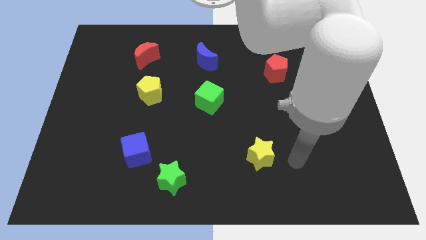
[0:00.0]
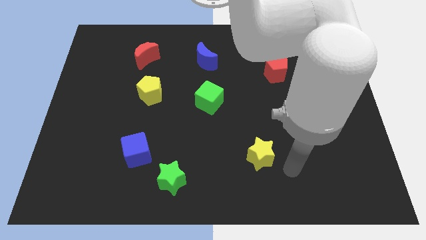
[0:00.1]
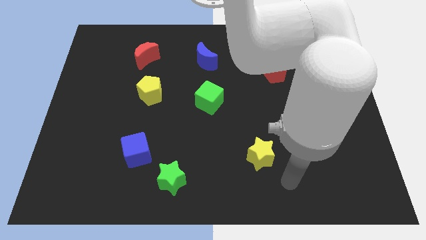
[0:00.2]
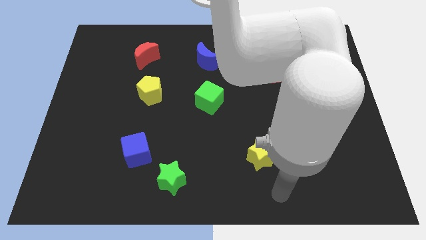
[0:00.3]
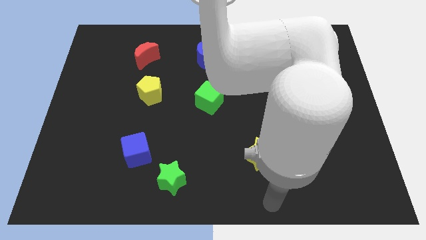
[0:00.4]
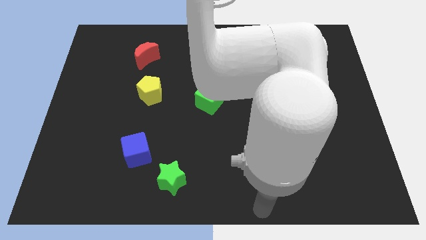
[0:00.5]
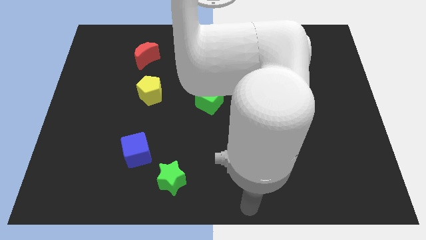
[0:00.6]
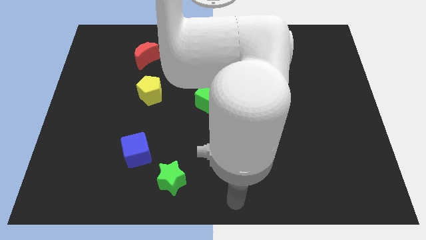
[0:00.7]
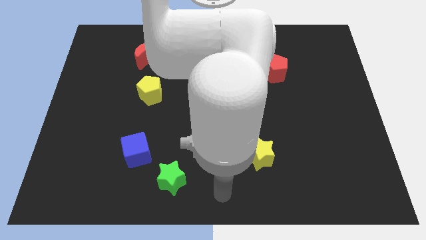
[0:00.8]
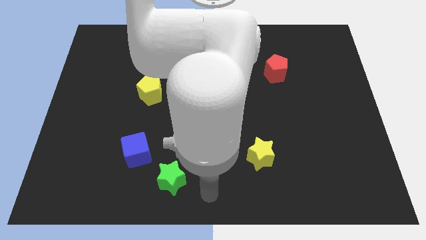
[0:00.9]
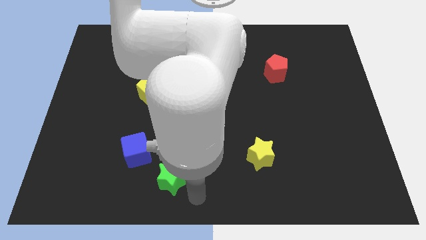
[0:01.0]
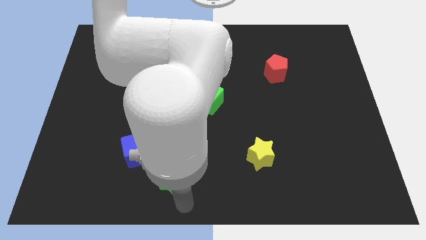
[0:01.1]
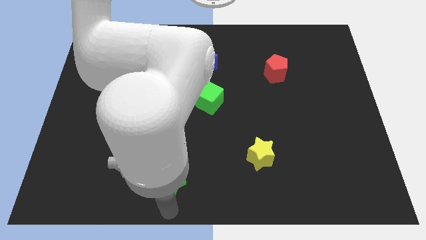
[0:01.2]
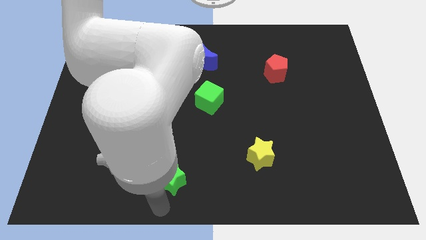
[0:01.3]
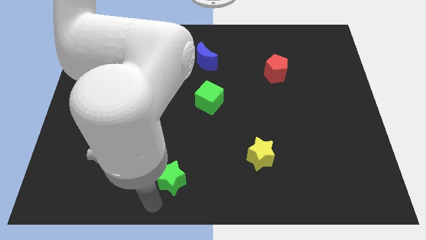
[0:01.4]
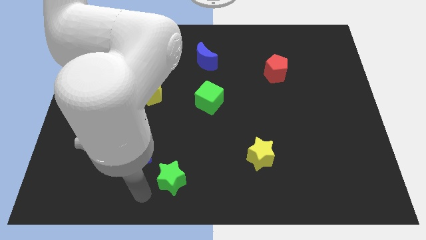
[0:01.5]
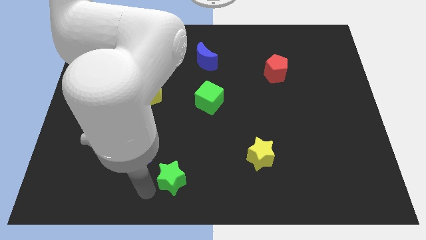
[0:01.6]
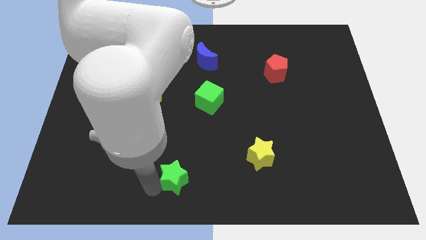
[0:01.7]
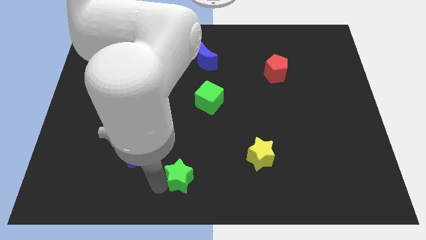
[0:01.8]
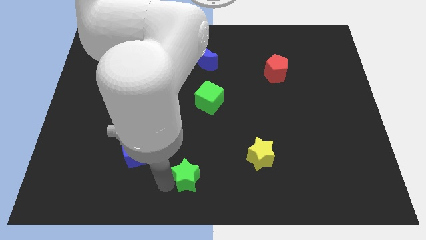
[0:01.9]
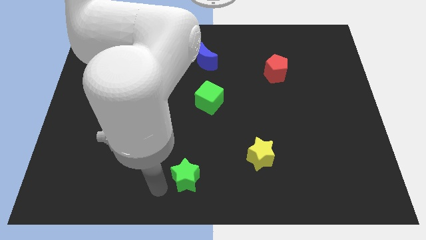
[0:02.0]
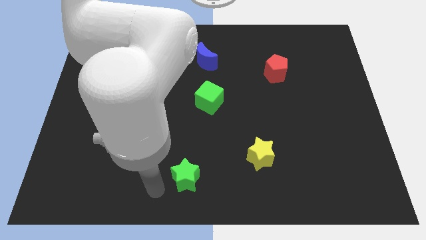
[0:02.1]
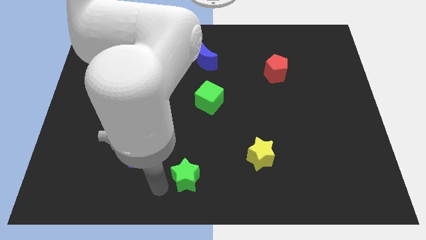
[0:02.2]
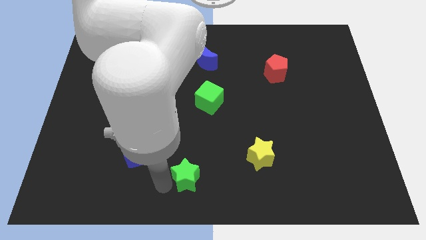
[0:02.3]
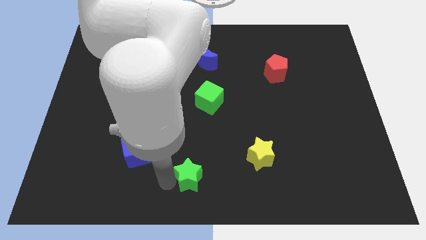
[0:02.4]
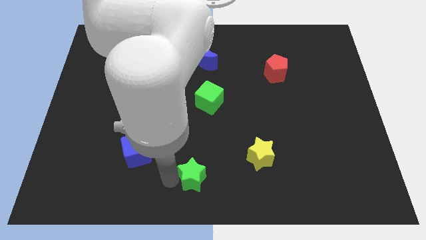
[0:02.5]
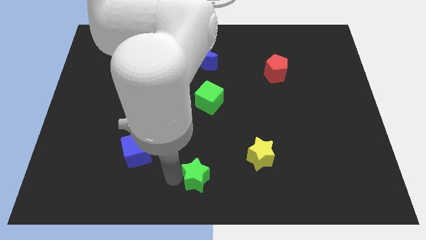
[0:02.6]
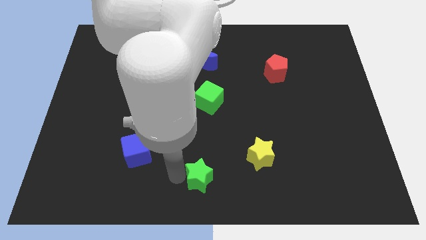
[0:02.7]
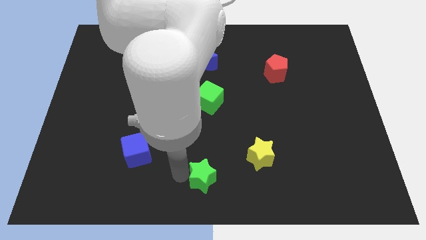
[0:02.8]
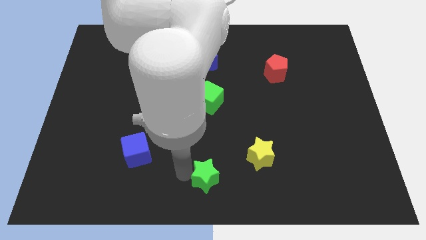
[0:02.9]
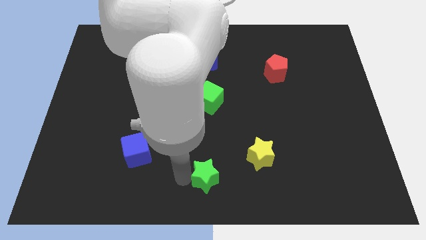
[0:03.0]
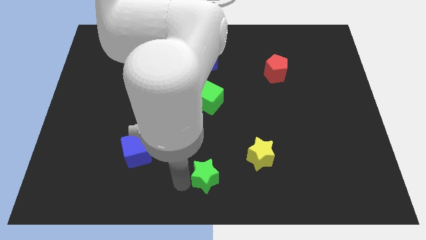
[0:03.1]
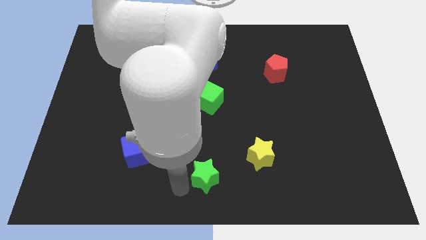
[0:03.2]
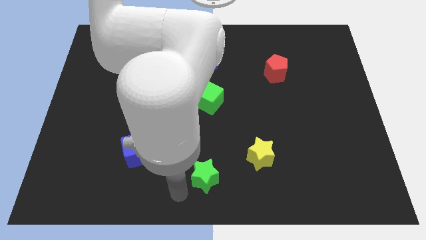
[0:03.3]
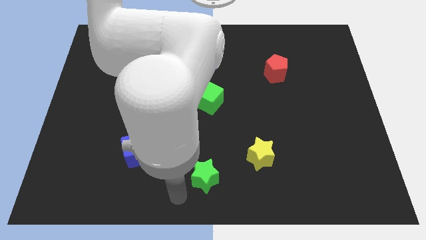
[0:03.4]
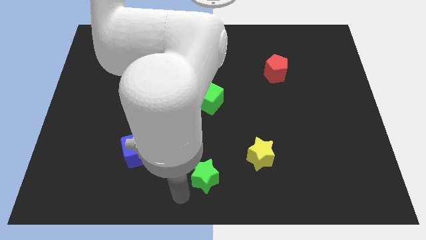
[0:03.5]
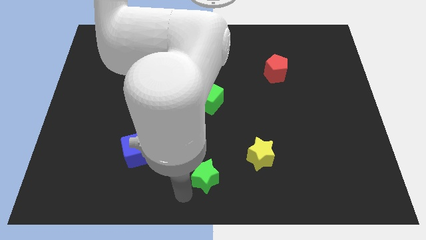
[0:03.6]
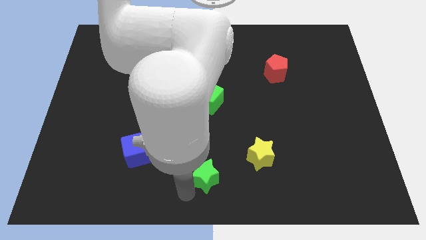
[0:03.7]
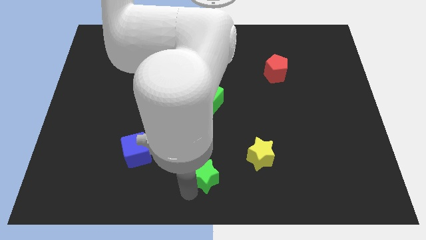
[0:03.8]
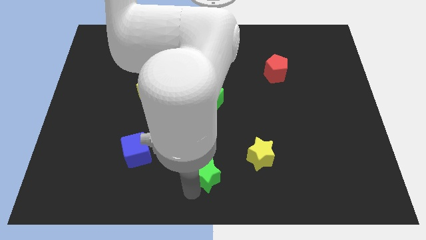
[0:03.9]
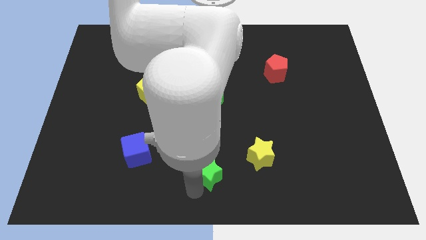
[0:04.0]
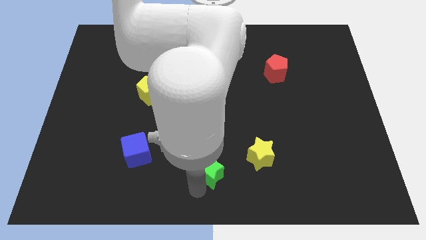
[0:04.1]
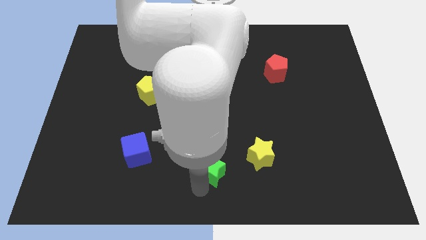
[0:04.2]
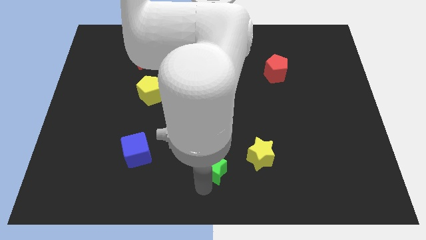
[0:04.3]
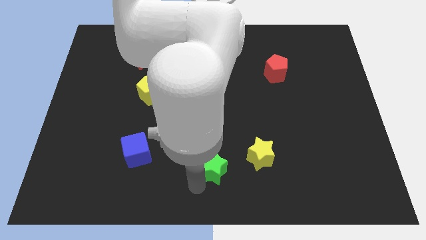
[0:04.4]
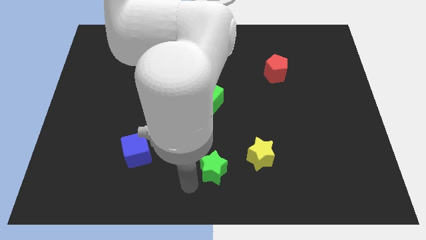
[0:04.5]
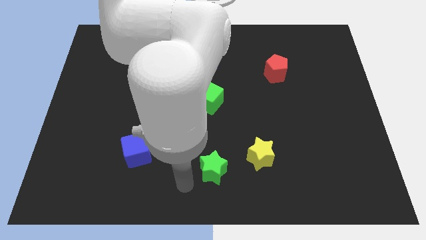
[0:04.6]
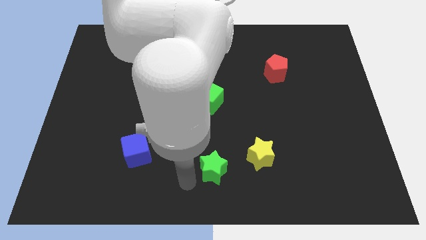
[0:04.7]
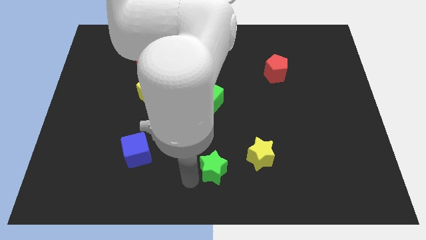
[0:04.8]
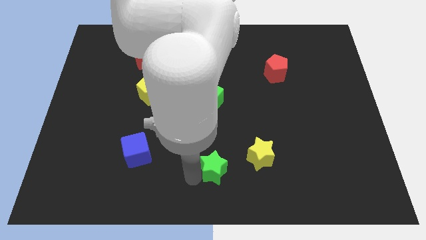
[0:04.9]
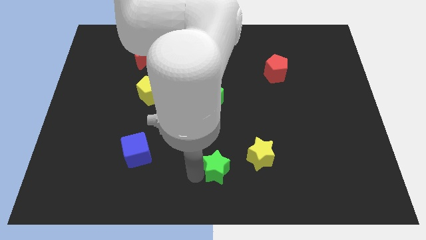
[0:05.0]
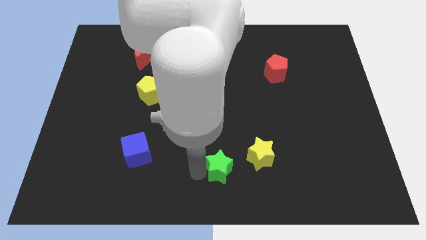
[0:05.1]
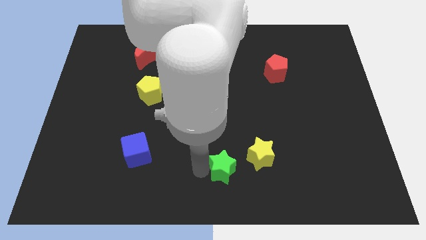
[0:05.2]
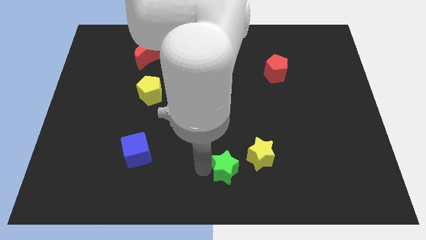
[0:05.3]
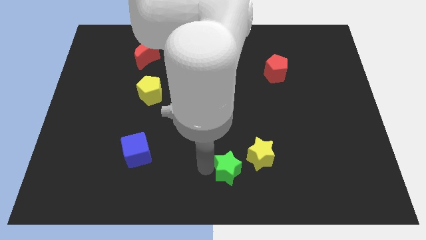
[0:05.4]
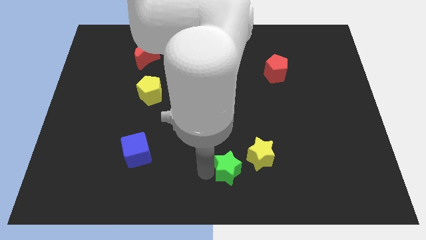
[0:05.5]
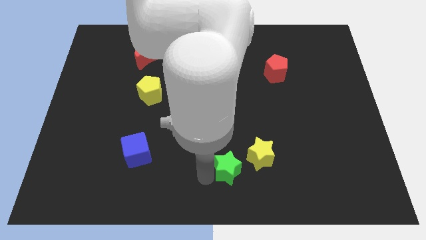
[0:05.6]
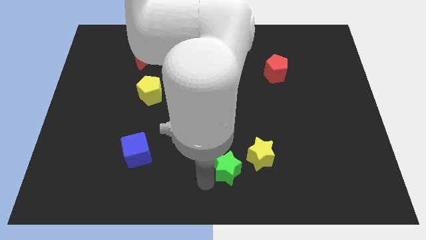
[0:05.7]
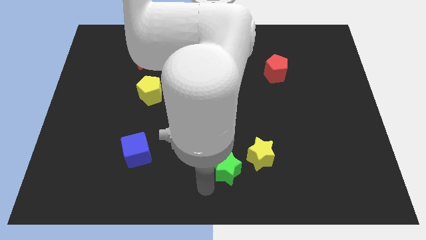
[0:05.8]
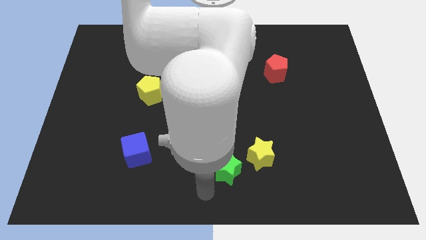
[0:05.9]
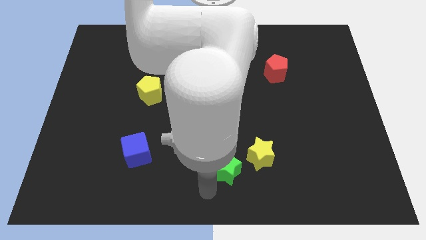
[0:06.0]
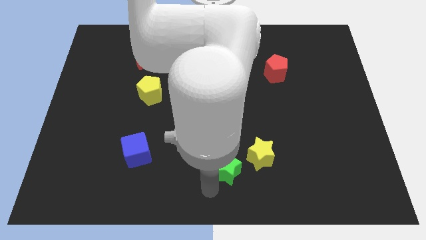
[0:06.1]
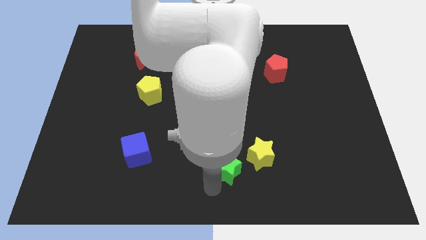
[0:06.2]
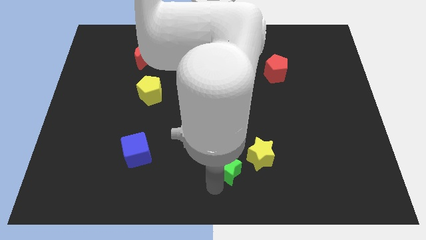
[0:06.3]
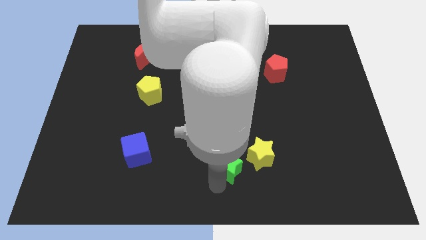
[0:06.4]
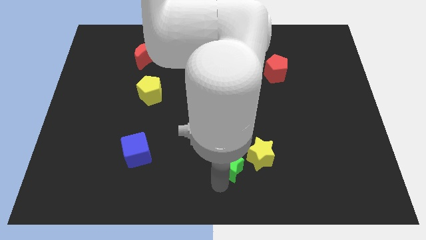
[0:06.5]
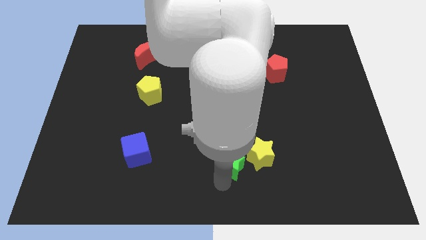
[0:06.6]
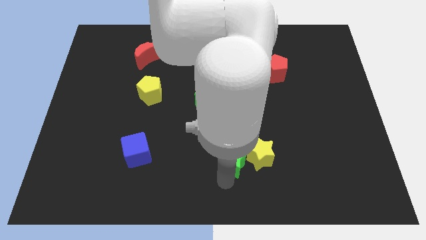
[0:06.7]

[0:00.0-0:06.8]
put the green star to the yellow star
